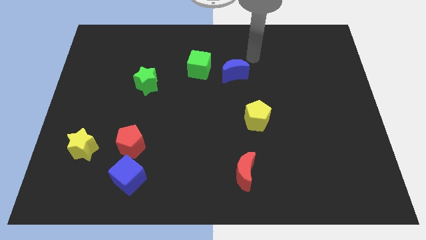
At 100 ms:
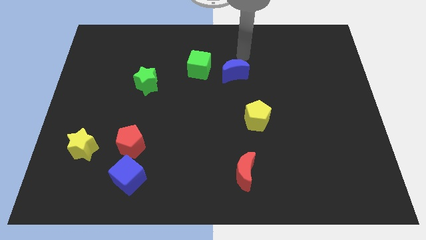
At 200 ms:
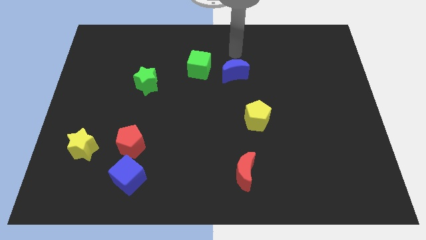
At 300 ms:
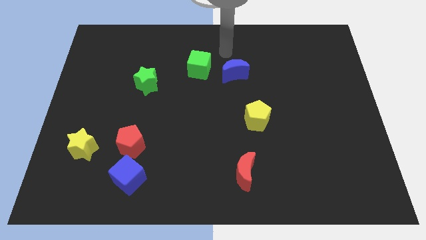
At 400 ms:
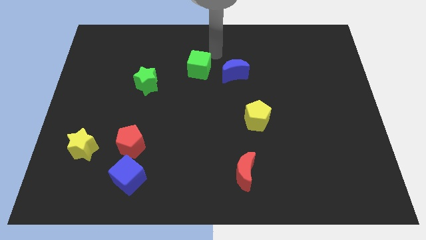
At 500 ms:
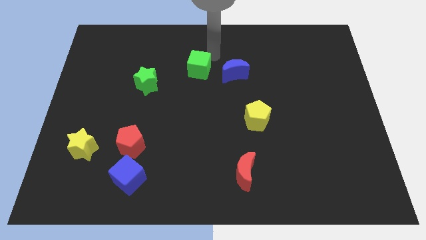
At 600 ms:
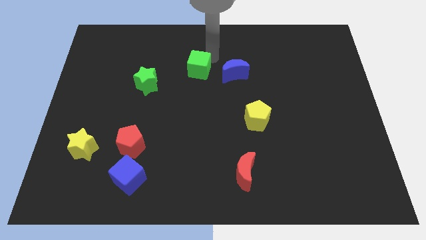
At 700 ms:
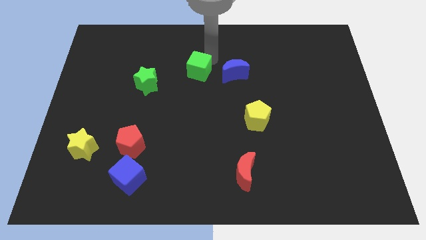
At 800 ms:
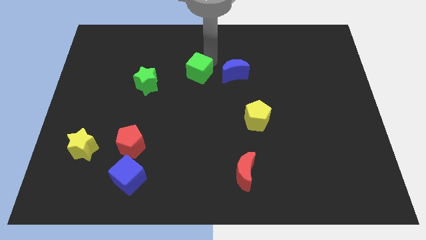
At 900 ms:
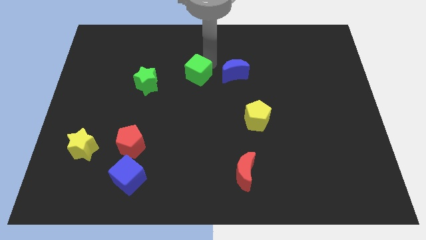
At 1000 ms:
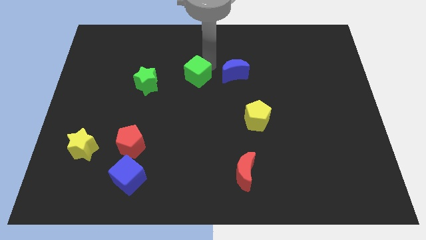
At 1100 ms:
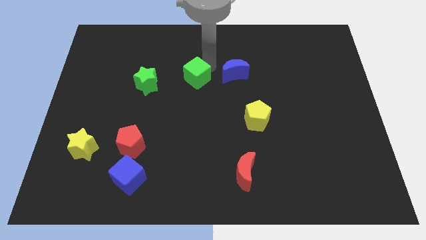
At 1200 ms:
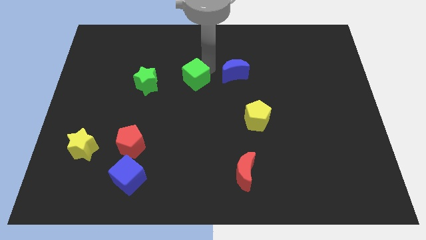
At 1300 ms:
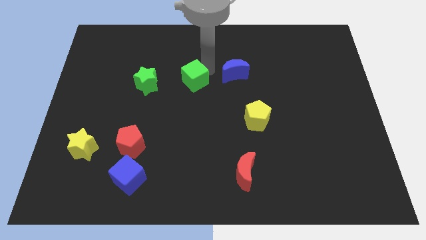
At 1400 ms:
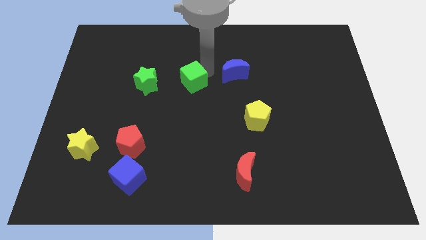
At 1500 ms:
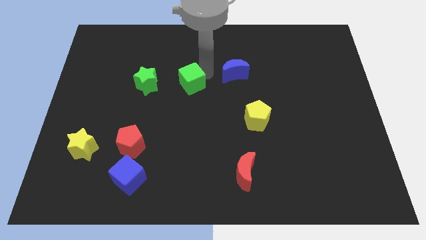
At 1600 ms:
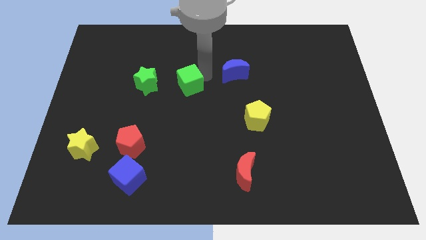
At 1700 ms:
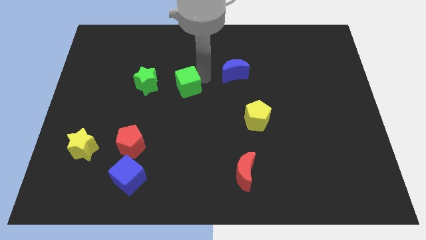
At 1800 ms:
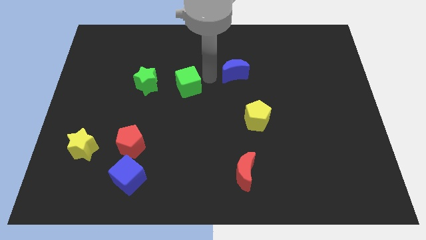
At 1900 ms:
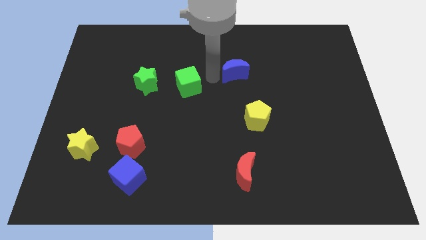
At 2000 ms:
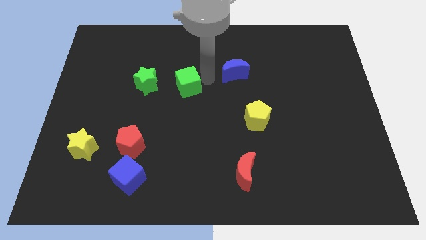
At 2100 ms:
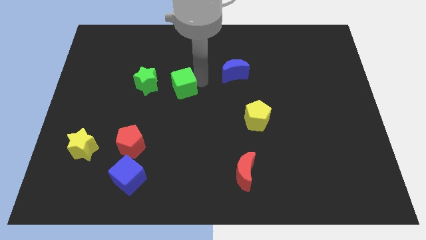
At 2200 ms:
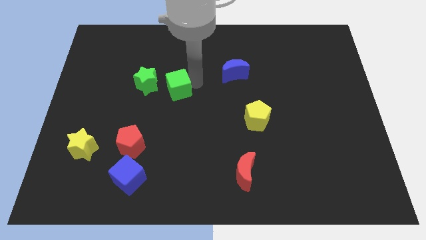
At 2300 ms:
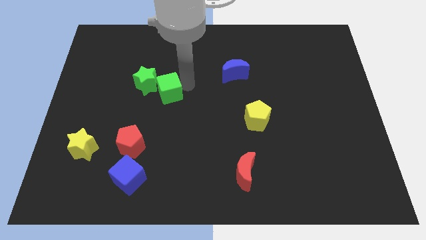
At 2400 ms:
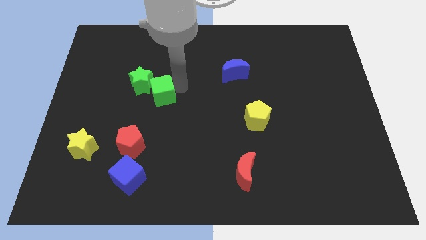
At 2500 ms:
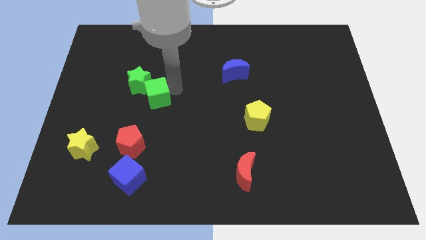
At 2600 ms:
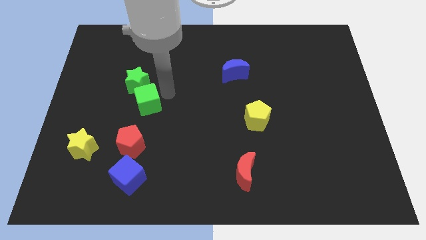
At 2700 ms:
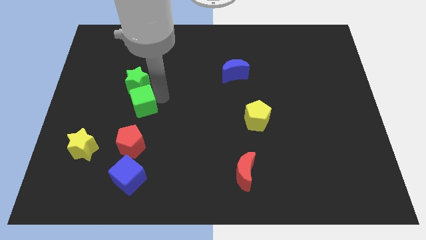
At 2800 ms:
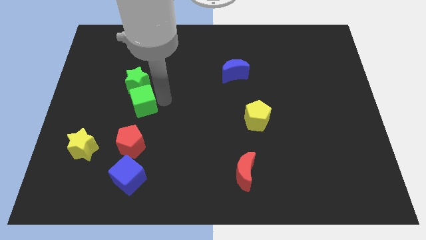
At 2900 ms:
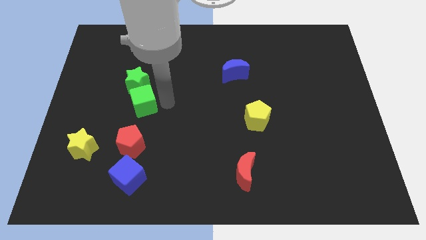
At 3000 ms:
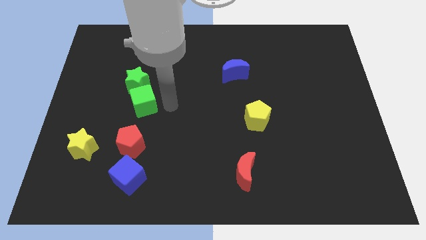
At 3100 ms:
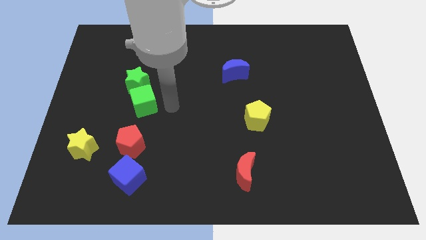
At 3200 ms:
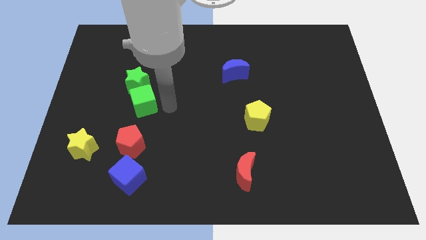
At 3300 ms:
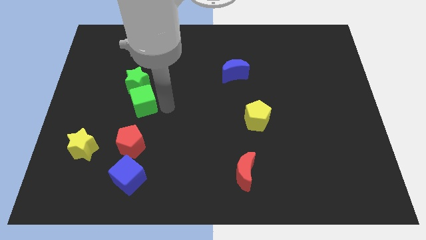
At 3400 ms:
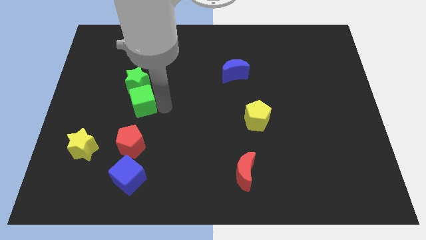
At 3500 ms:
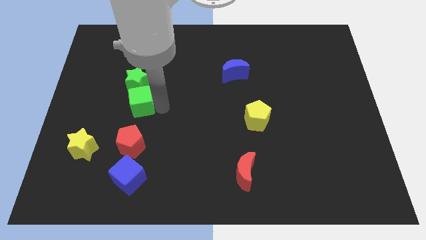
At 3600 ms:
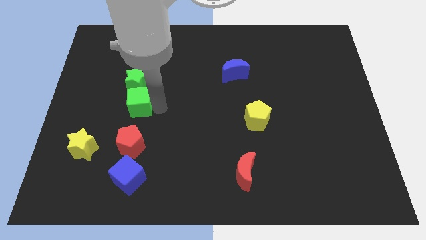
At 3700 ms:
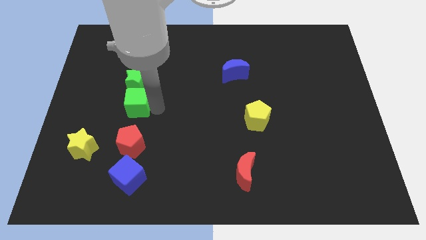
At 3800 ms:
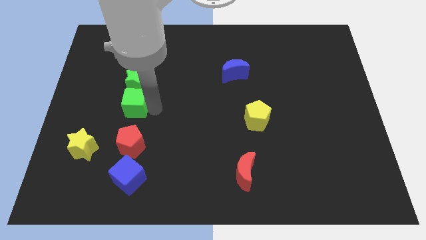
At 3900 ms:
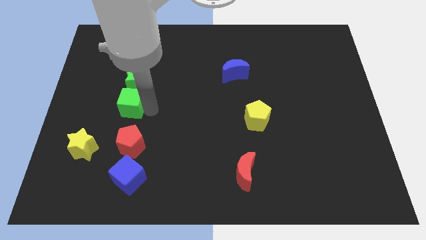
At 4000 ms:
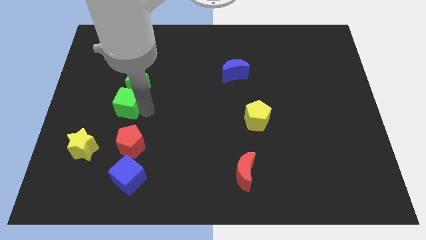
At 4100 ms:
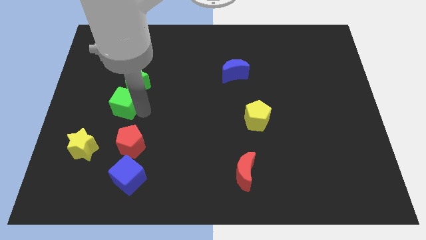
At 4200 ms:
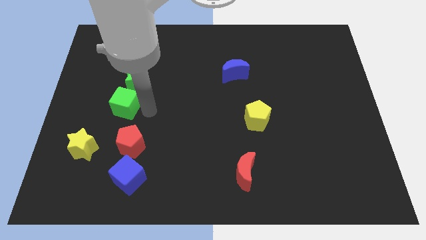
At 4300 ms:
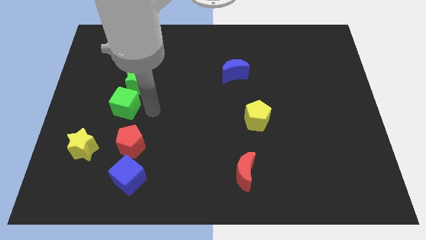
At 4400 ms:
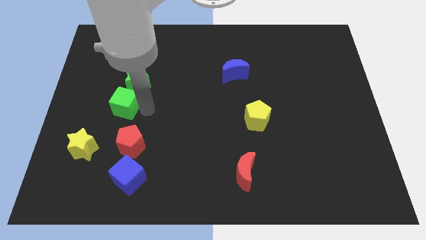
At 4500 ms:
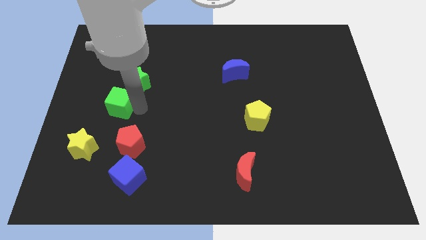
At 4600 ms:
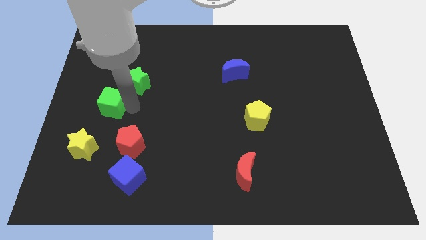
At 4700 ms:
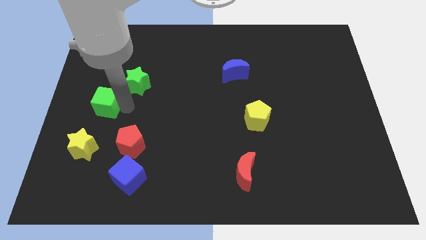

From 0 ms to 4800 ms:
move the green cube to the left side of the board

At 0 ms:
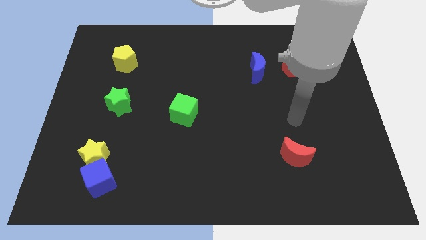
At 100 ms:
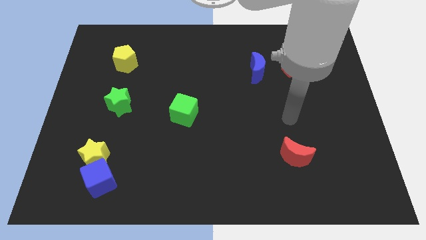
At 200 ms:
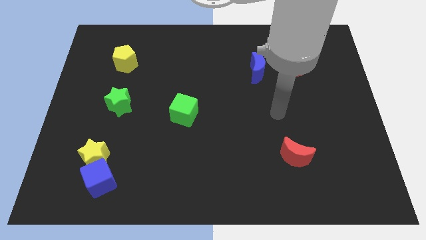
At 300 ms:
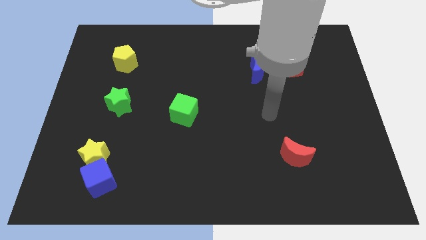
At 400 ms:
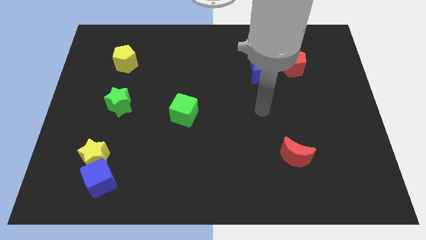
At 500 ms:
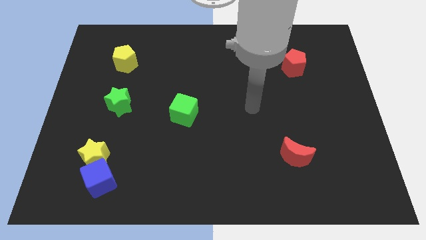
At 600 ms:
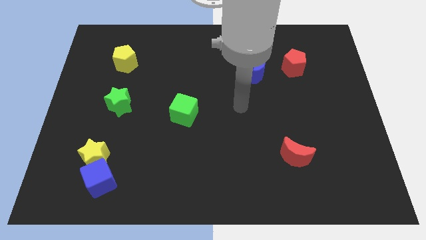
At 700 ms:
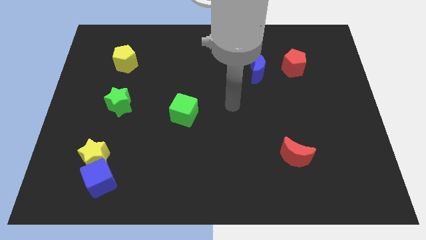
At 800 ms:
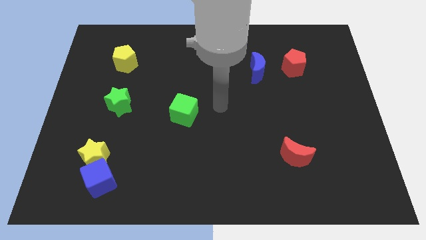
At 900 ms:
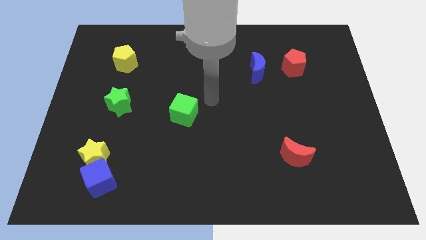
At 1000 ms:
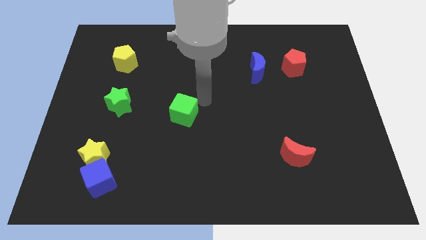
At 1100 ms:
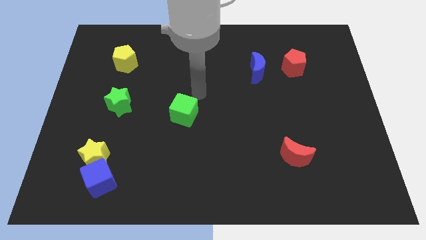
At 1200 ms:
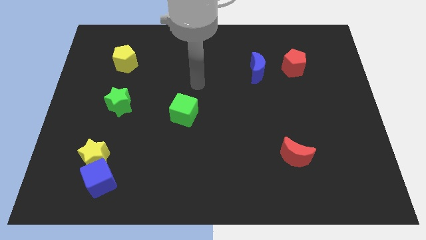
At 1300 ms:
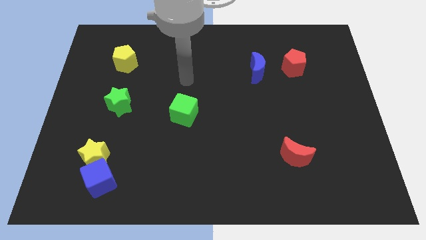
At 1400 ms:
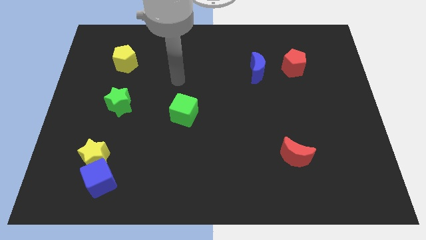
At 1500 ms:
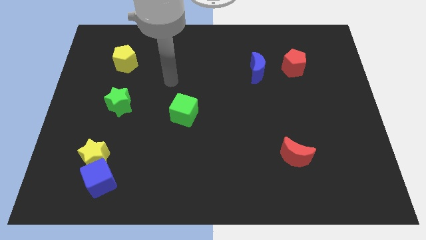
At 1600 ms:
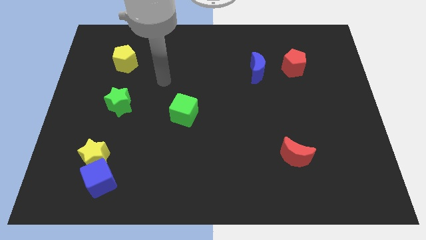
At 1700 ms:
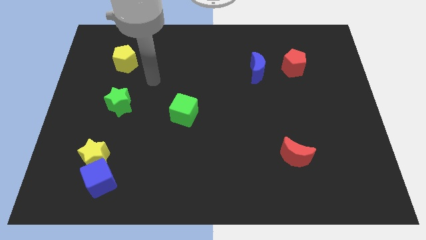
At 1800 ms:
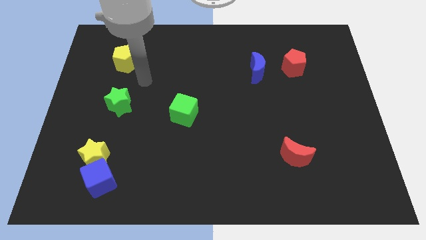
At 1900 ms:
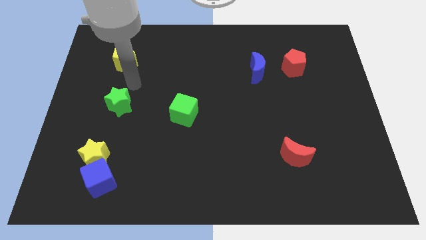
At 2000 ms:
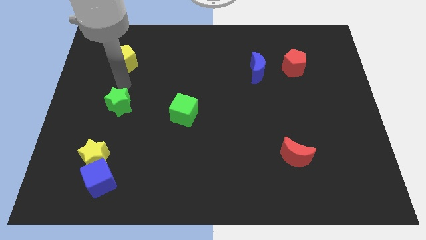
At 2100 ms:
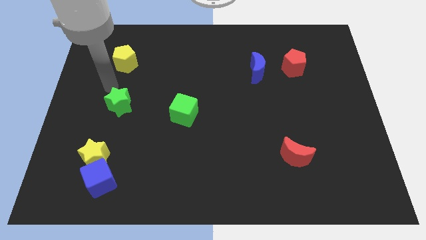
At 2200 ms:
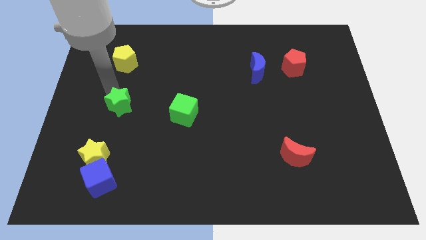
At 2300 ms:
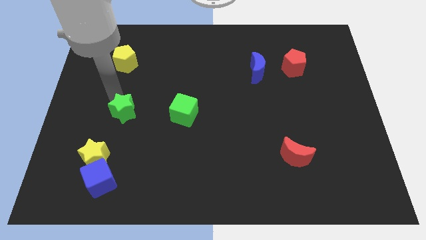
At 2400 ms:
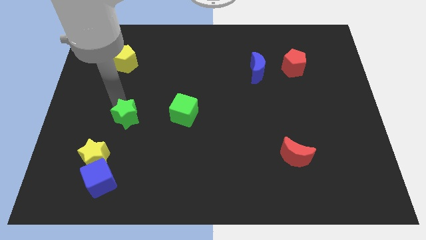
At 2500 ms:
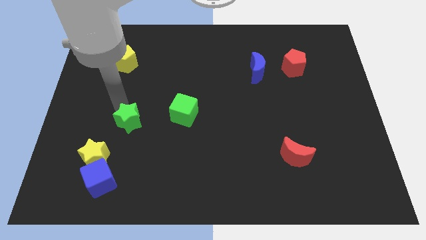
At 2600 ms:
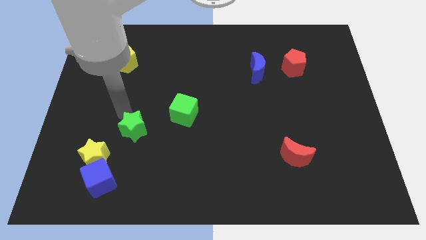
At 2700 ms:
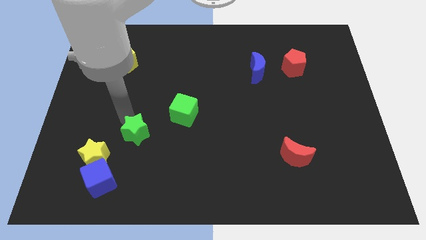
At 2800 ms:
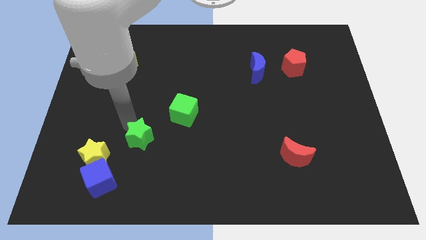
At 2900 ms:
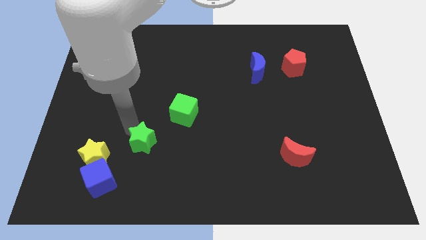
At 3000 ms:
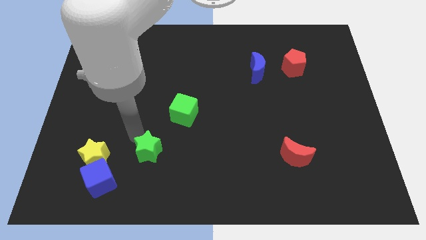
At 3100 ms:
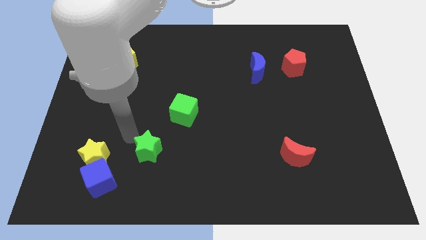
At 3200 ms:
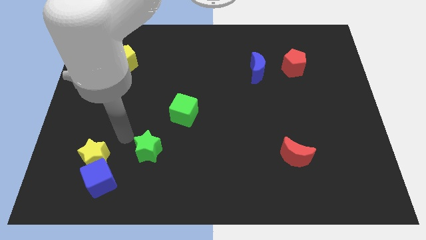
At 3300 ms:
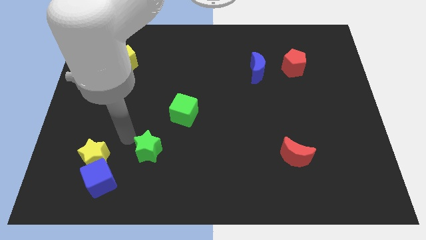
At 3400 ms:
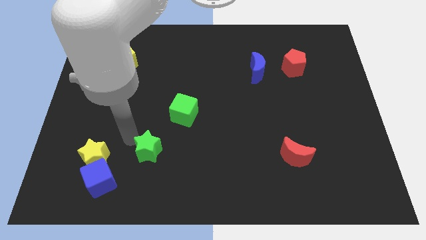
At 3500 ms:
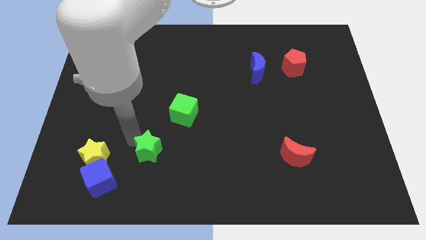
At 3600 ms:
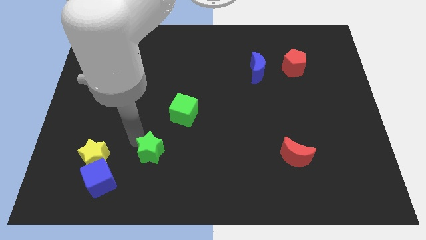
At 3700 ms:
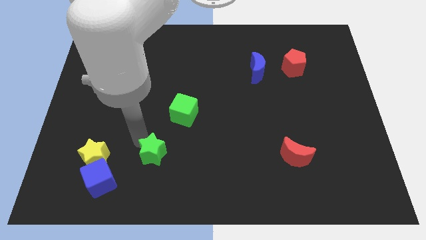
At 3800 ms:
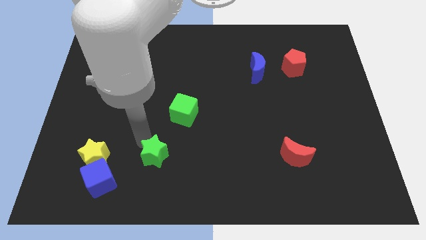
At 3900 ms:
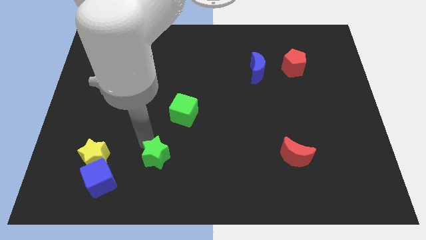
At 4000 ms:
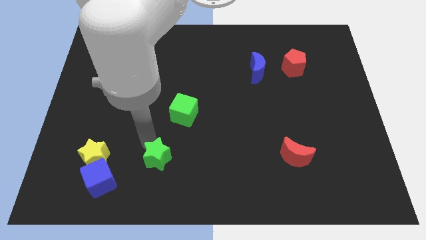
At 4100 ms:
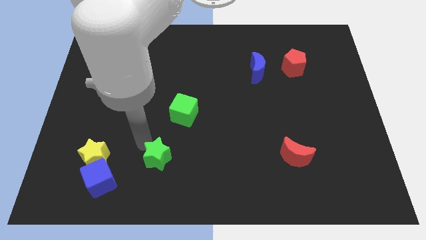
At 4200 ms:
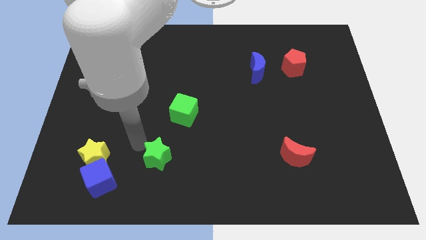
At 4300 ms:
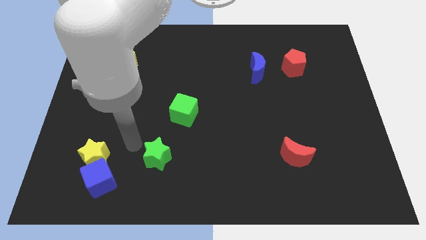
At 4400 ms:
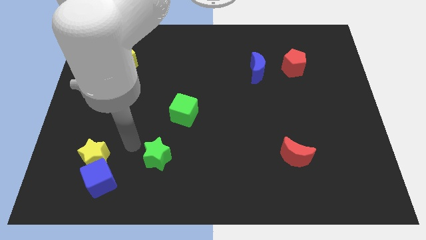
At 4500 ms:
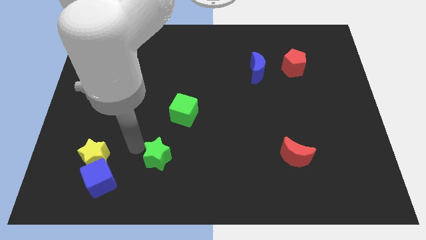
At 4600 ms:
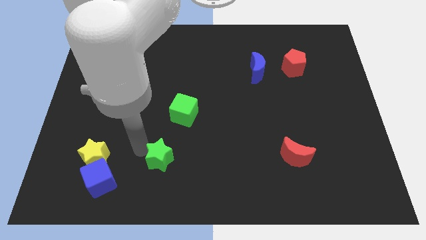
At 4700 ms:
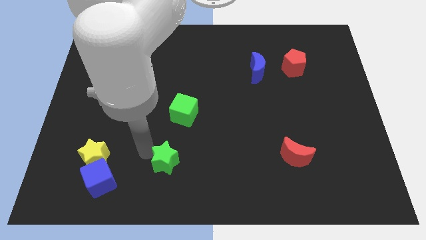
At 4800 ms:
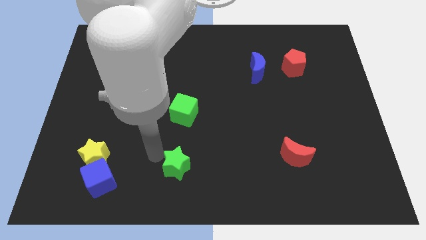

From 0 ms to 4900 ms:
slide the green star to the bottom
